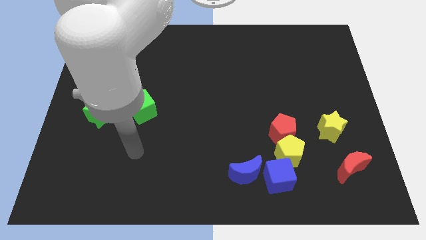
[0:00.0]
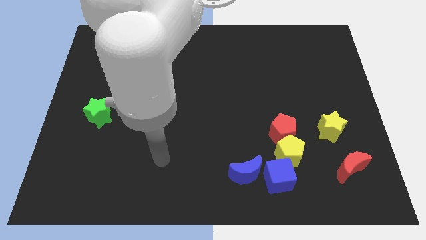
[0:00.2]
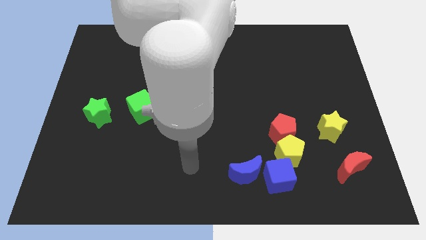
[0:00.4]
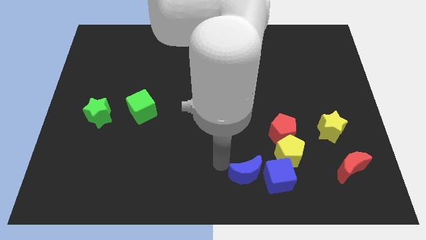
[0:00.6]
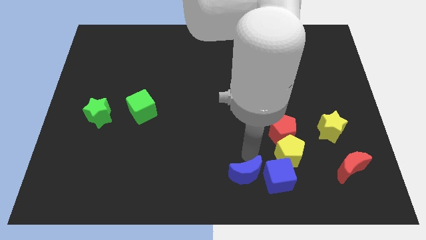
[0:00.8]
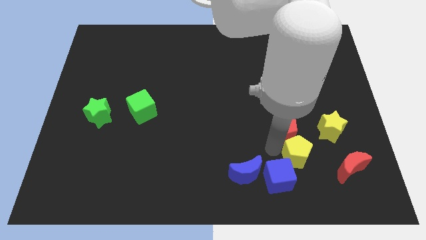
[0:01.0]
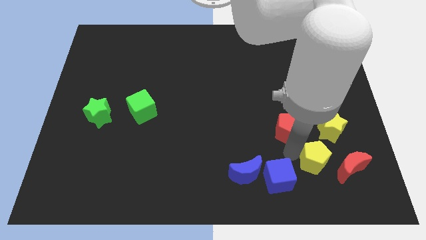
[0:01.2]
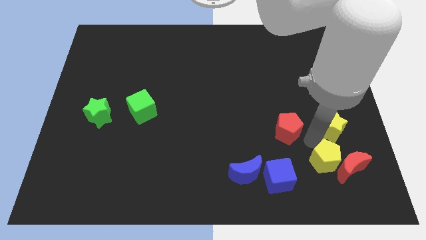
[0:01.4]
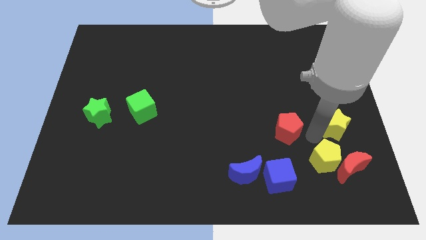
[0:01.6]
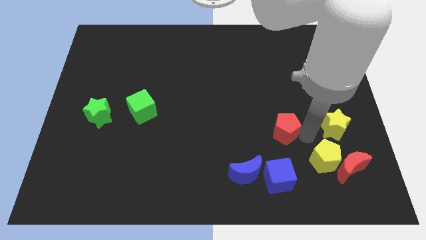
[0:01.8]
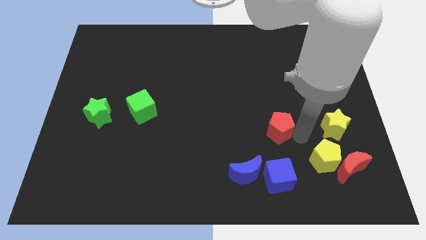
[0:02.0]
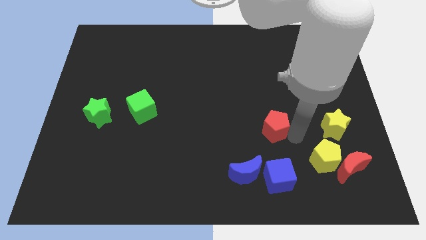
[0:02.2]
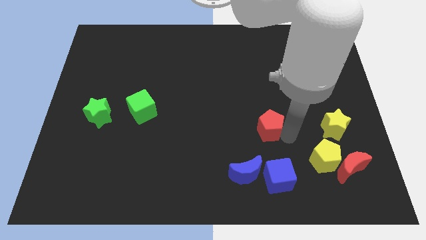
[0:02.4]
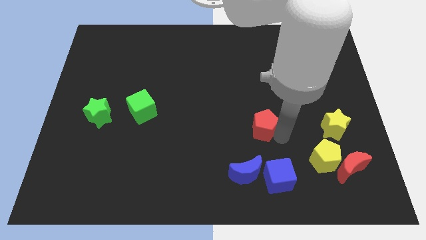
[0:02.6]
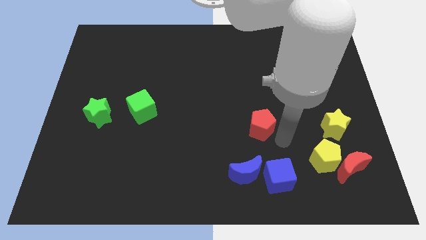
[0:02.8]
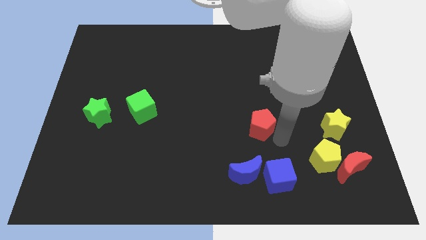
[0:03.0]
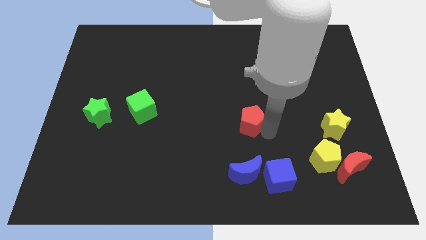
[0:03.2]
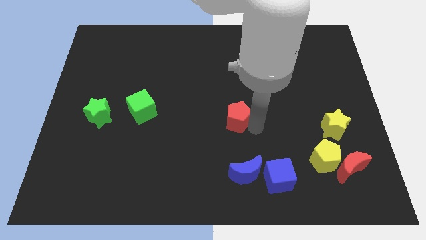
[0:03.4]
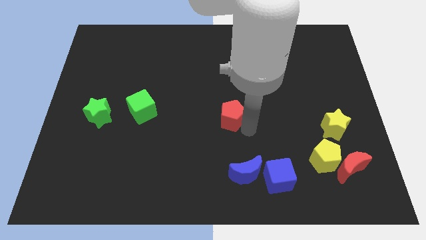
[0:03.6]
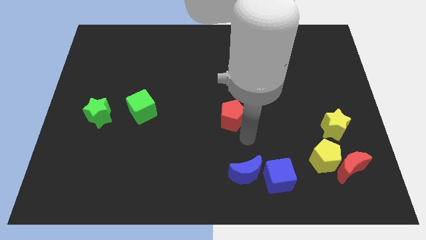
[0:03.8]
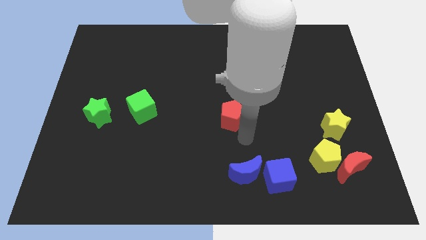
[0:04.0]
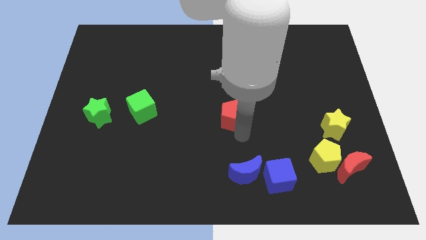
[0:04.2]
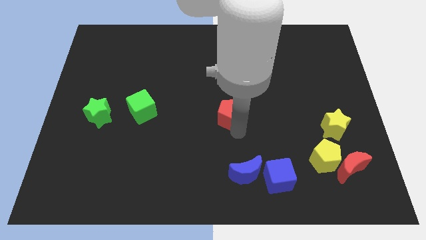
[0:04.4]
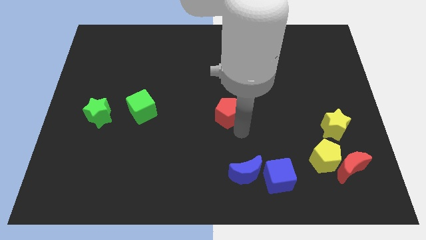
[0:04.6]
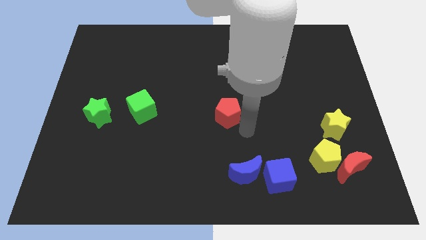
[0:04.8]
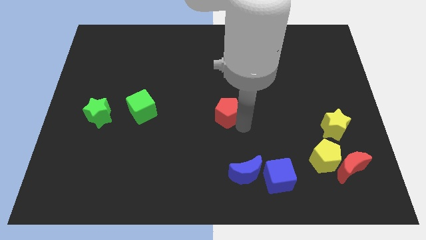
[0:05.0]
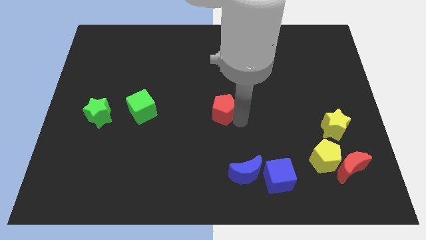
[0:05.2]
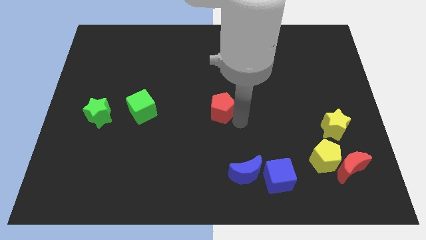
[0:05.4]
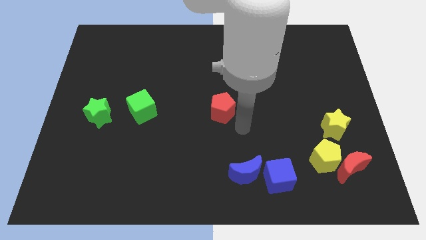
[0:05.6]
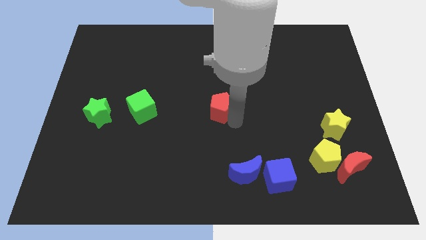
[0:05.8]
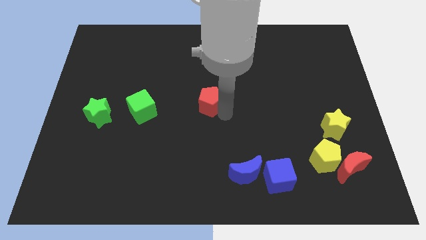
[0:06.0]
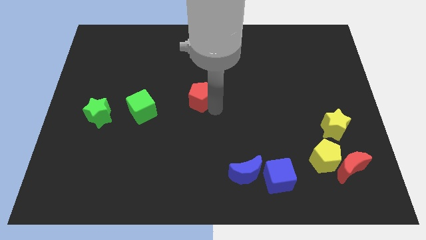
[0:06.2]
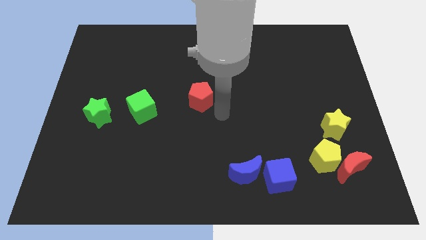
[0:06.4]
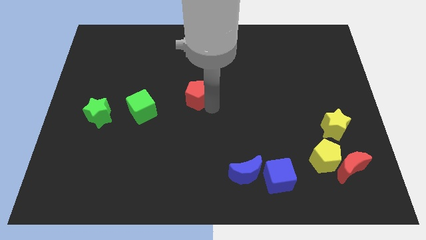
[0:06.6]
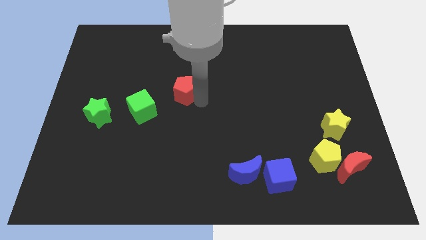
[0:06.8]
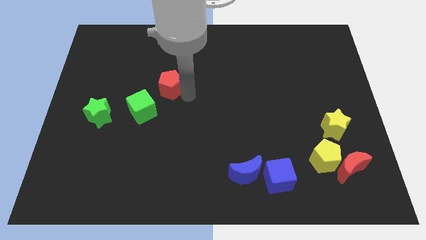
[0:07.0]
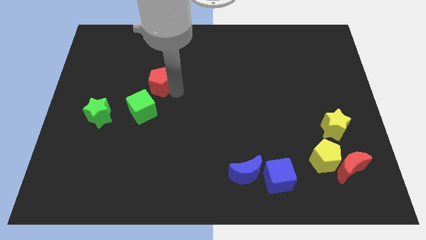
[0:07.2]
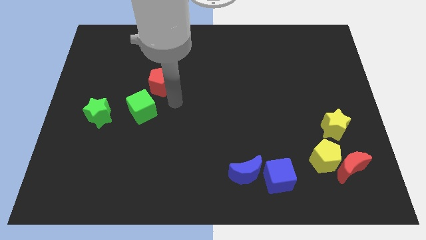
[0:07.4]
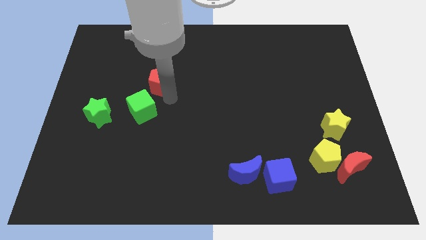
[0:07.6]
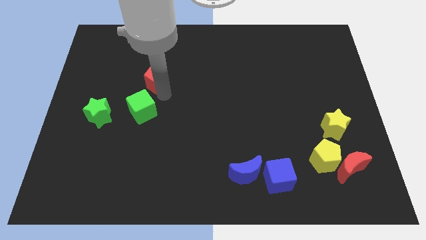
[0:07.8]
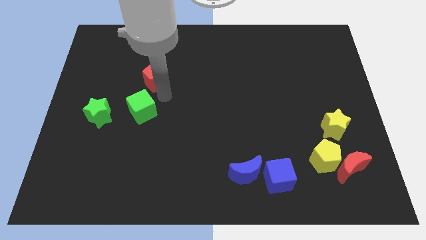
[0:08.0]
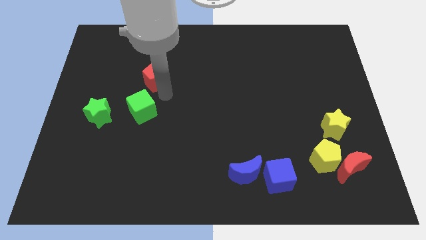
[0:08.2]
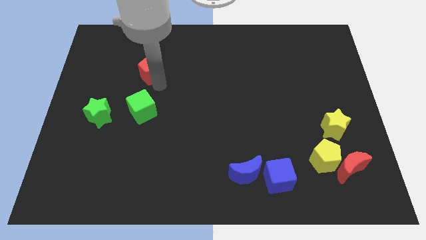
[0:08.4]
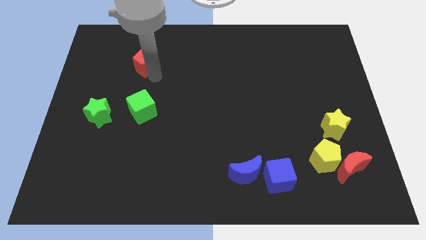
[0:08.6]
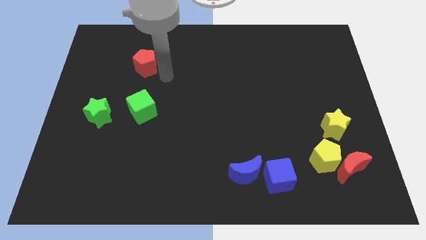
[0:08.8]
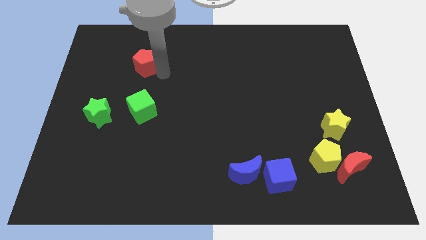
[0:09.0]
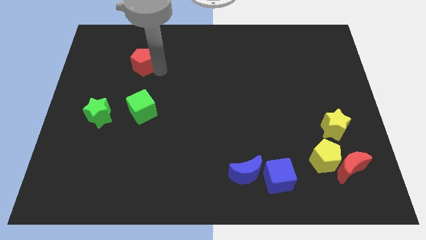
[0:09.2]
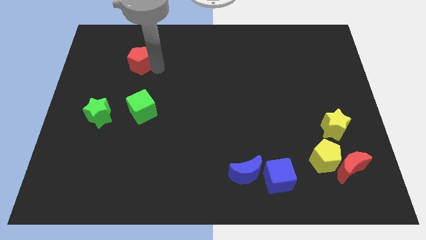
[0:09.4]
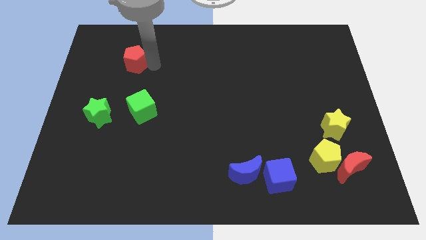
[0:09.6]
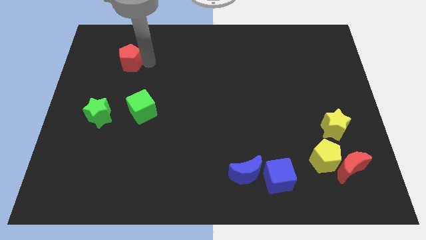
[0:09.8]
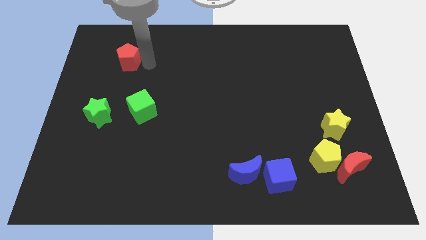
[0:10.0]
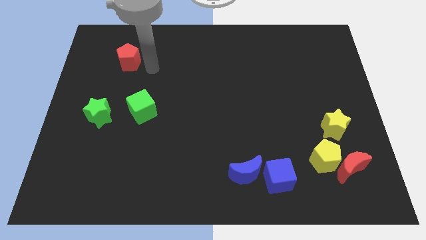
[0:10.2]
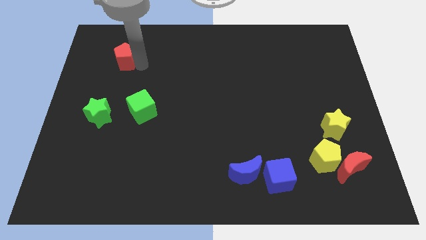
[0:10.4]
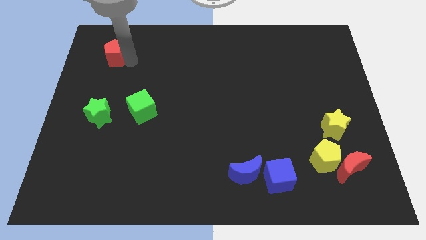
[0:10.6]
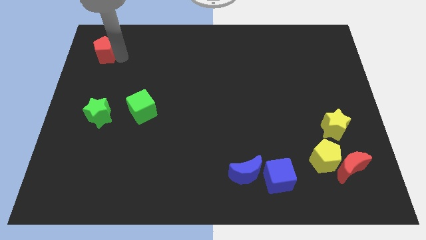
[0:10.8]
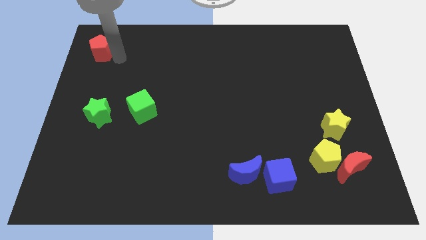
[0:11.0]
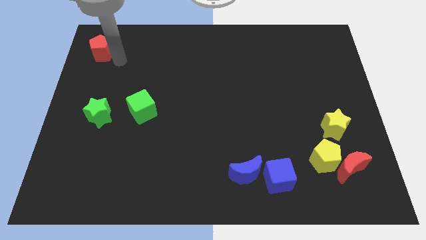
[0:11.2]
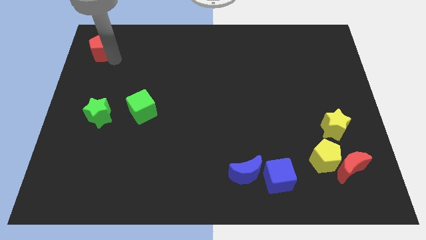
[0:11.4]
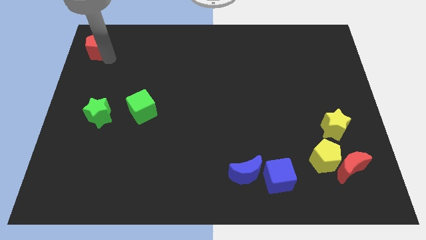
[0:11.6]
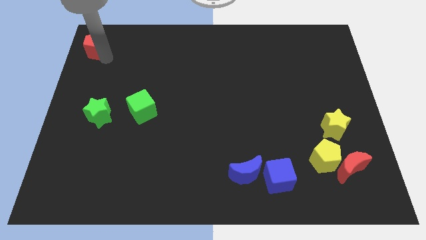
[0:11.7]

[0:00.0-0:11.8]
slide the red pentagon to the top left of the board

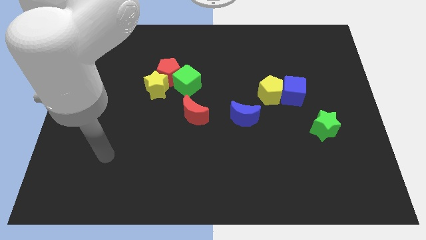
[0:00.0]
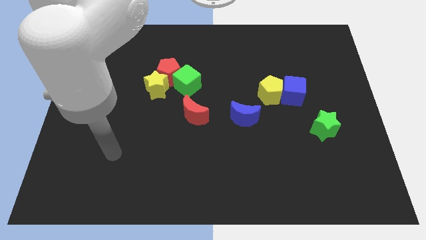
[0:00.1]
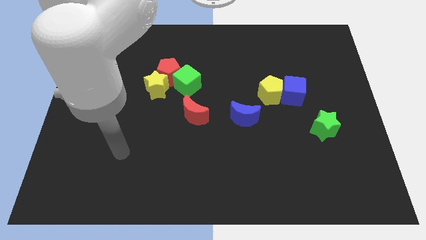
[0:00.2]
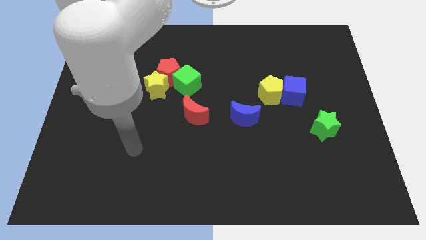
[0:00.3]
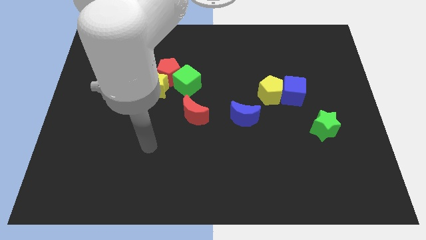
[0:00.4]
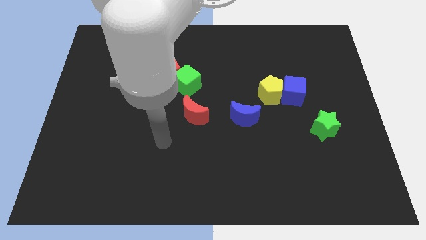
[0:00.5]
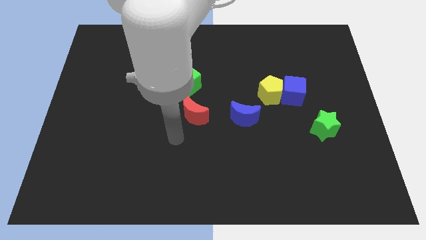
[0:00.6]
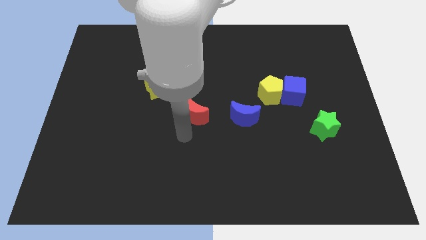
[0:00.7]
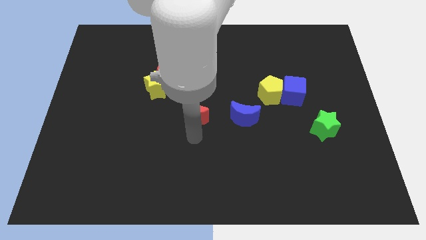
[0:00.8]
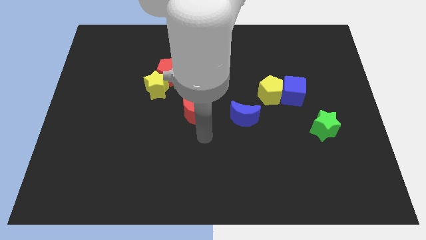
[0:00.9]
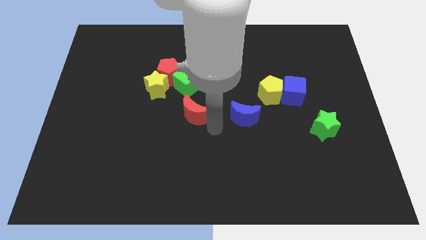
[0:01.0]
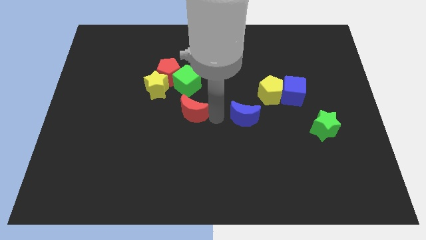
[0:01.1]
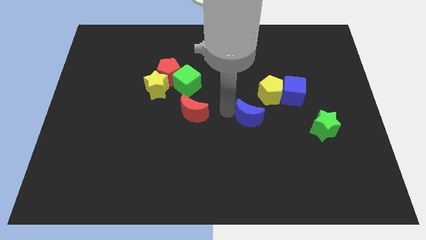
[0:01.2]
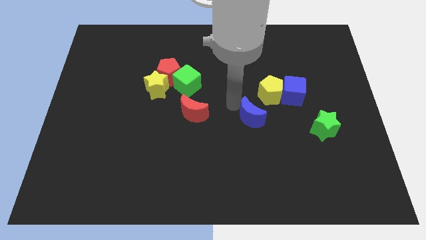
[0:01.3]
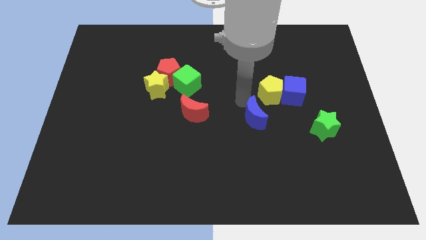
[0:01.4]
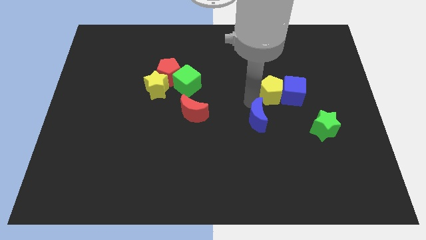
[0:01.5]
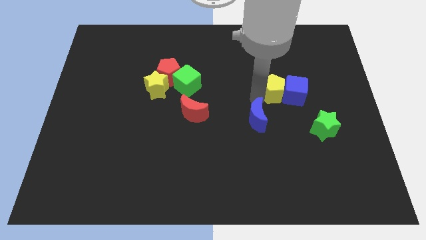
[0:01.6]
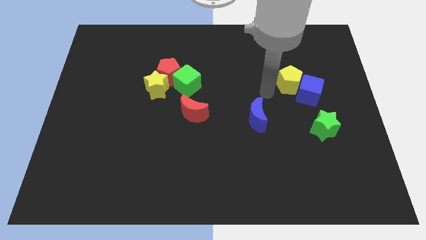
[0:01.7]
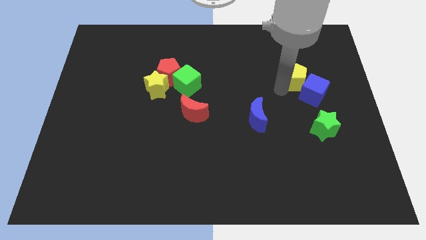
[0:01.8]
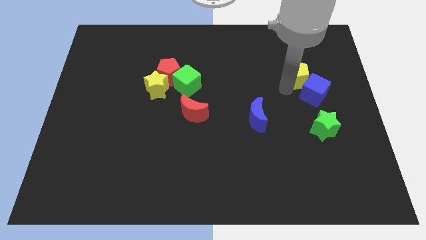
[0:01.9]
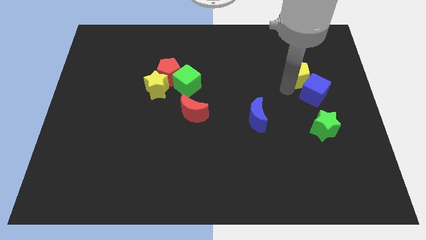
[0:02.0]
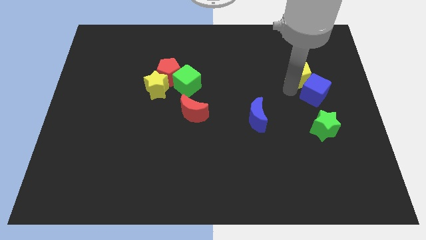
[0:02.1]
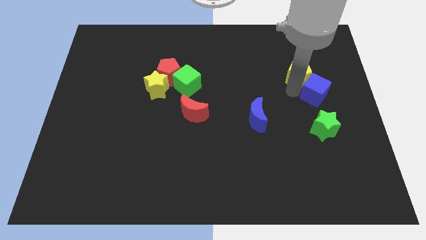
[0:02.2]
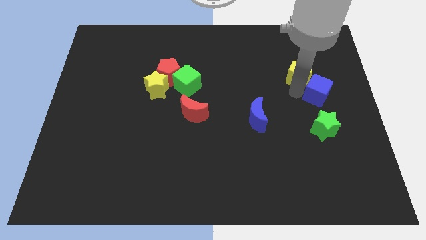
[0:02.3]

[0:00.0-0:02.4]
move the blue cube to the center right
